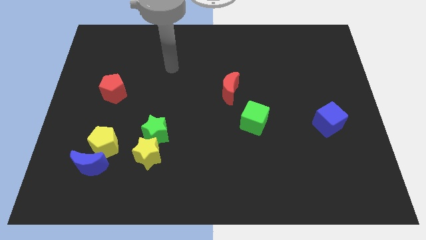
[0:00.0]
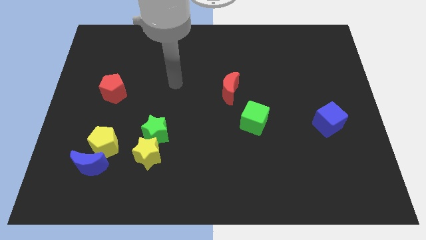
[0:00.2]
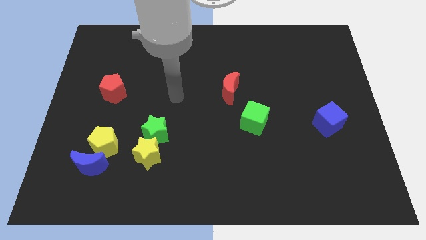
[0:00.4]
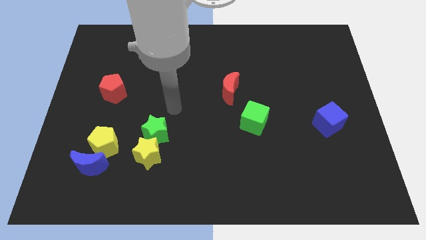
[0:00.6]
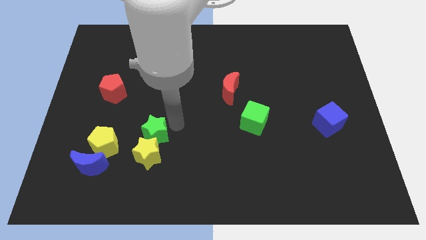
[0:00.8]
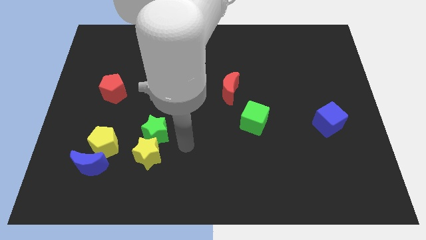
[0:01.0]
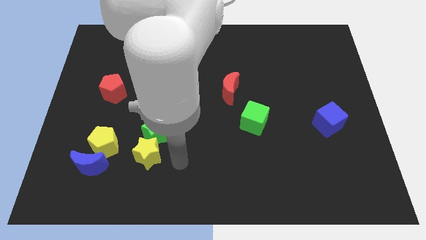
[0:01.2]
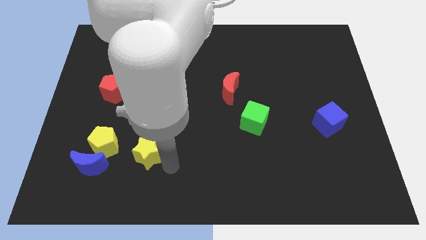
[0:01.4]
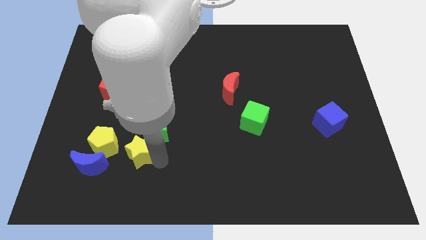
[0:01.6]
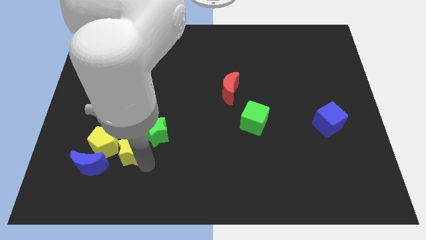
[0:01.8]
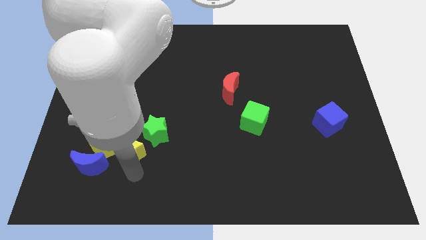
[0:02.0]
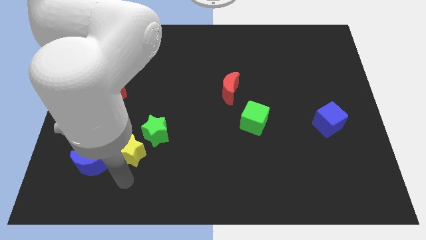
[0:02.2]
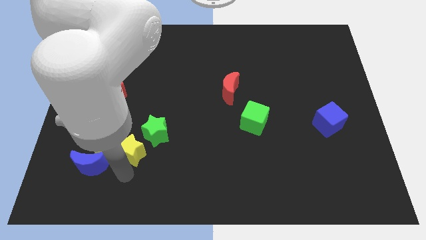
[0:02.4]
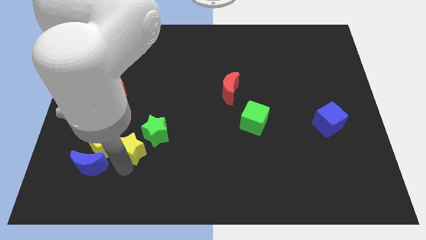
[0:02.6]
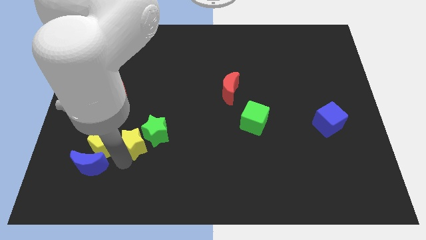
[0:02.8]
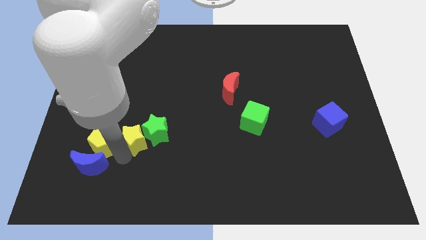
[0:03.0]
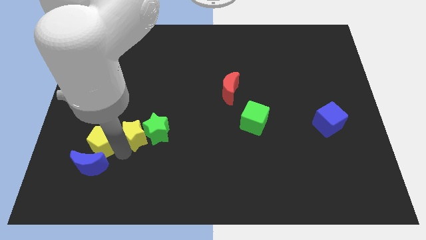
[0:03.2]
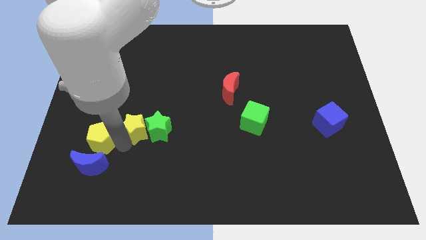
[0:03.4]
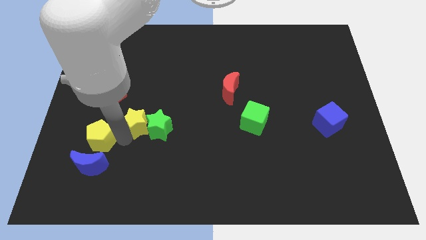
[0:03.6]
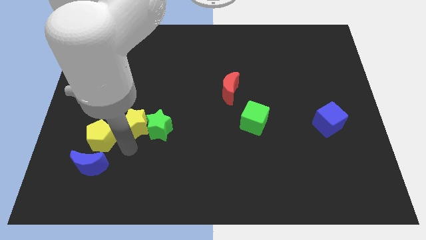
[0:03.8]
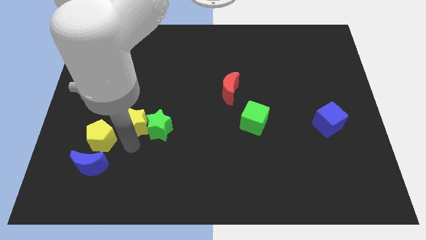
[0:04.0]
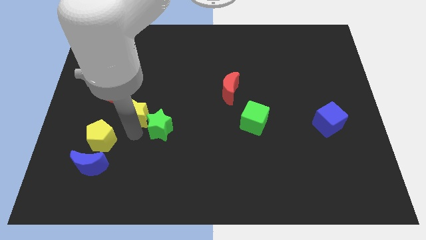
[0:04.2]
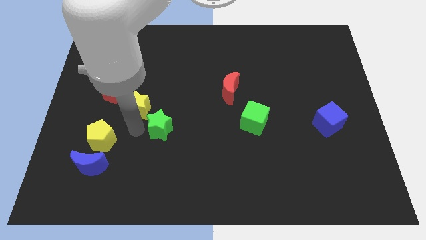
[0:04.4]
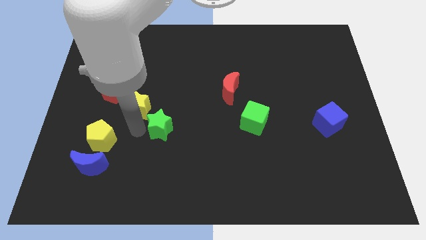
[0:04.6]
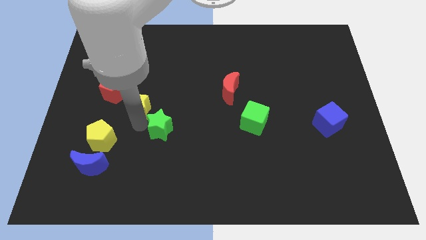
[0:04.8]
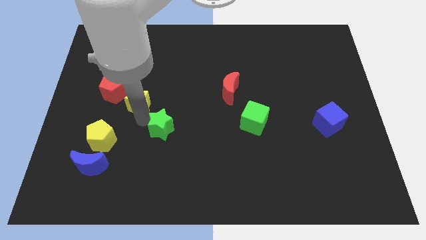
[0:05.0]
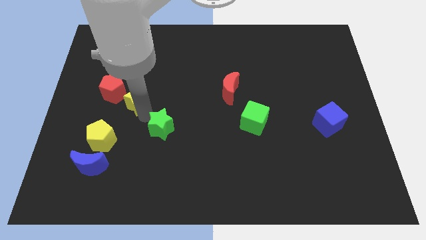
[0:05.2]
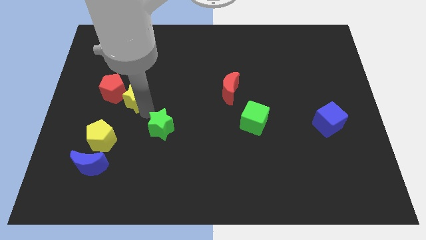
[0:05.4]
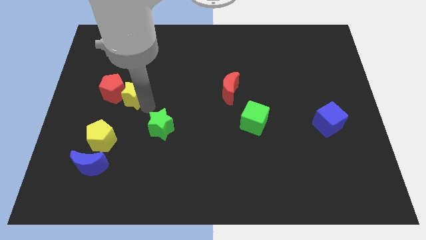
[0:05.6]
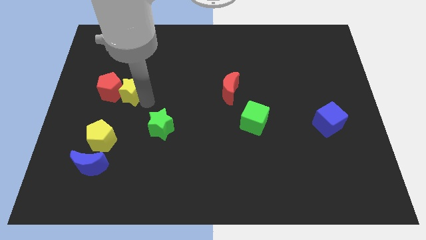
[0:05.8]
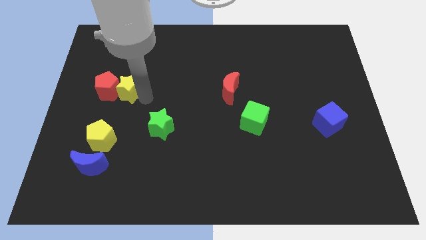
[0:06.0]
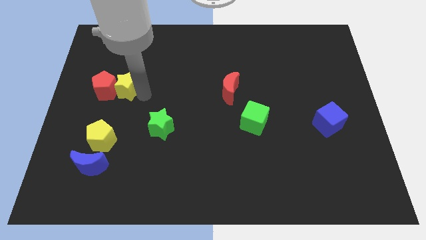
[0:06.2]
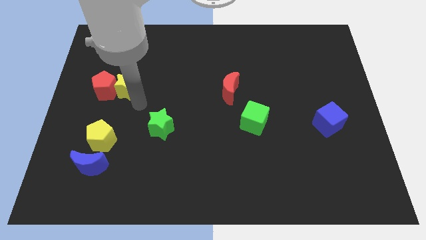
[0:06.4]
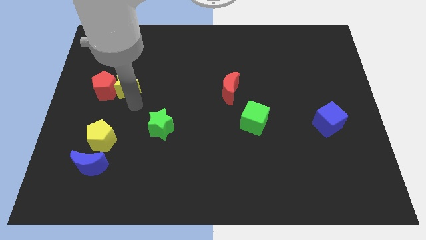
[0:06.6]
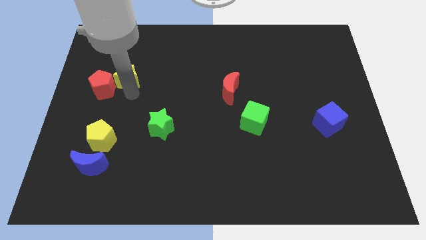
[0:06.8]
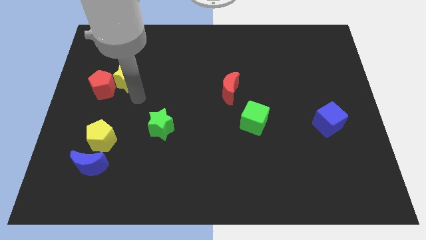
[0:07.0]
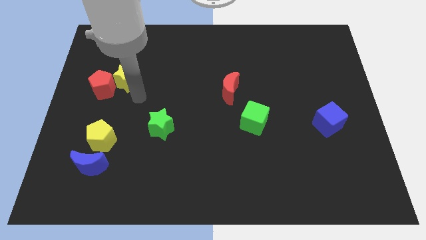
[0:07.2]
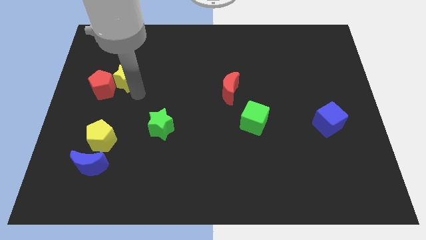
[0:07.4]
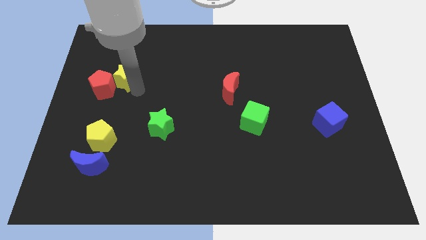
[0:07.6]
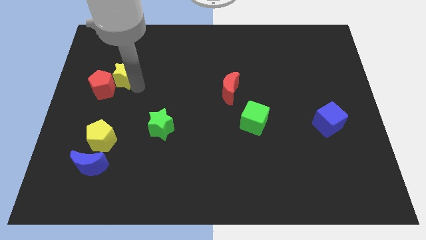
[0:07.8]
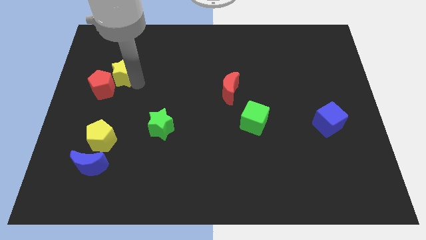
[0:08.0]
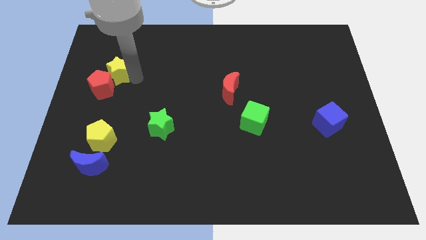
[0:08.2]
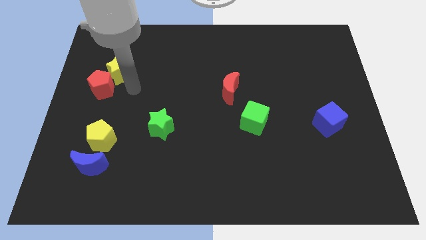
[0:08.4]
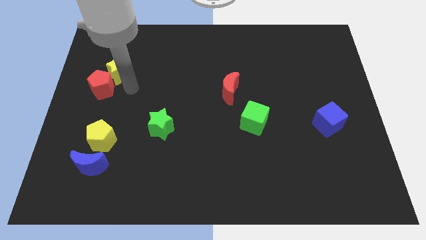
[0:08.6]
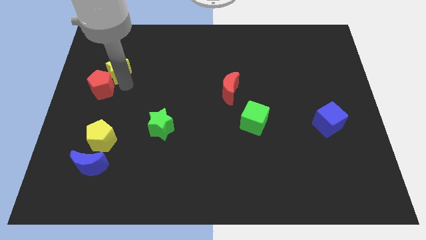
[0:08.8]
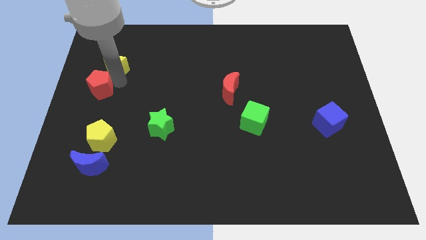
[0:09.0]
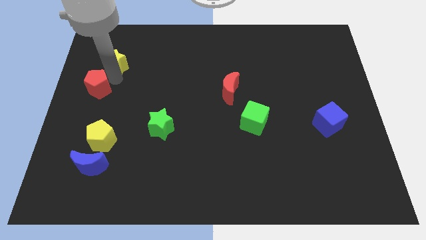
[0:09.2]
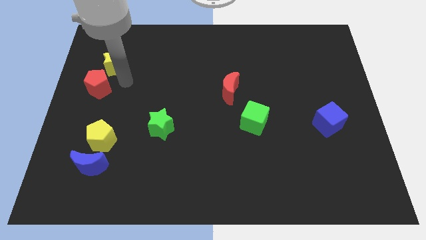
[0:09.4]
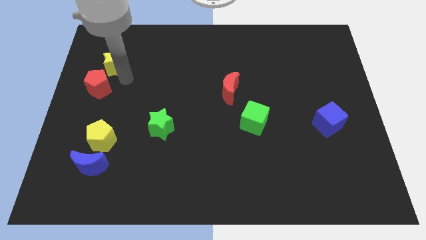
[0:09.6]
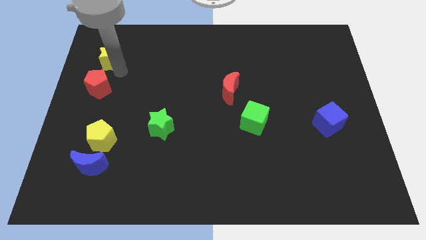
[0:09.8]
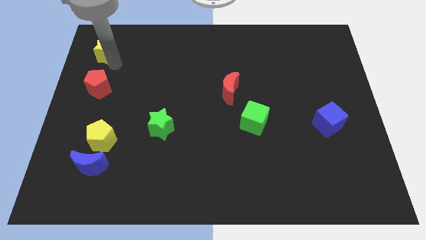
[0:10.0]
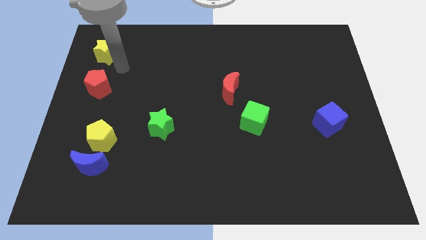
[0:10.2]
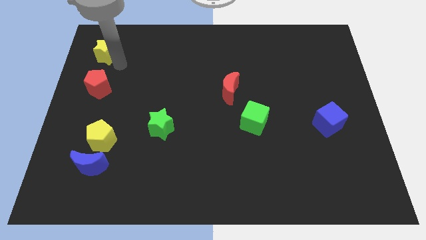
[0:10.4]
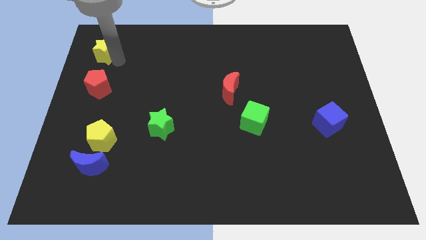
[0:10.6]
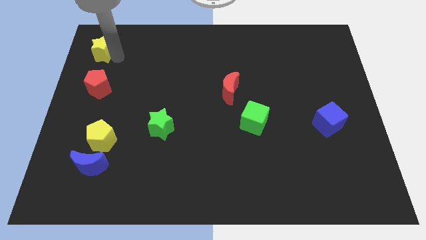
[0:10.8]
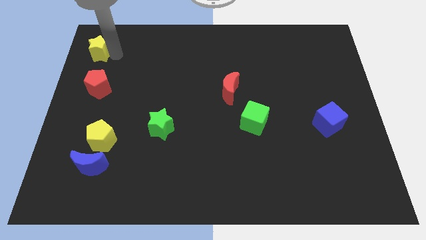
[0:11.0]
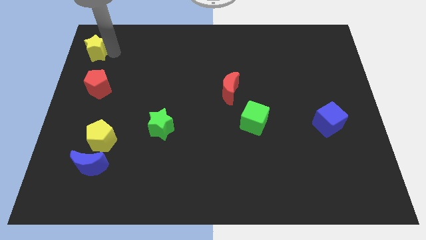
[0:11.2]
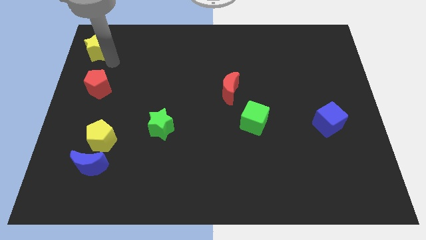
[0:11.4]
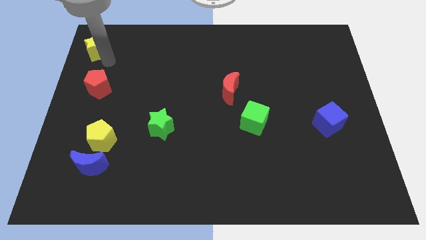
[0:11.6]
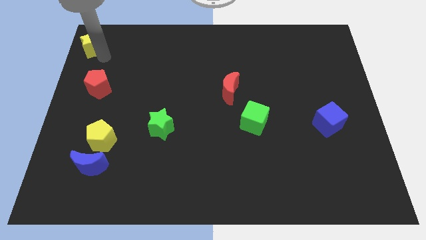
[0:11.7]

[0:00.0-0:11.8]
push the yellow star to the top left
